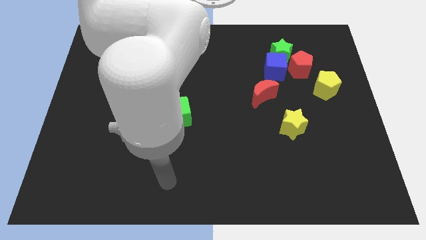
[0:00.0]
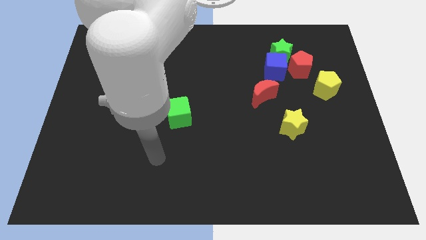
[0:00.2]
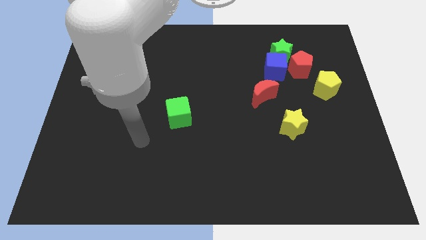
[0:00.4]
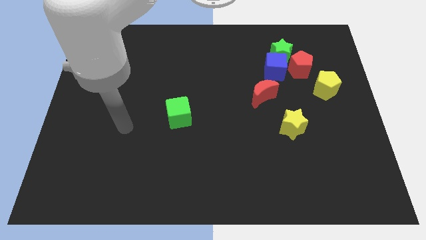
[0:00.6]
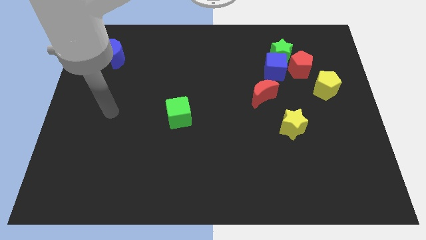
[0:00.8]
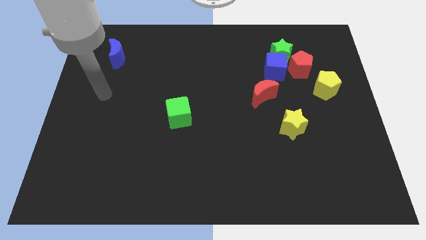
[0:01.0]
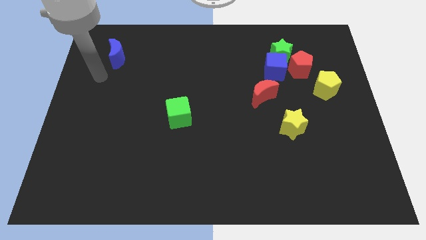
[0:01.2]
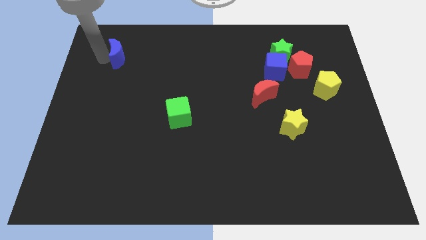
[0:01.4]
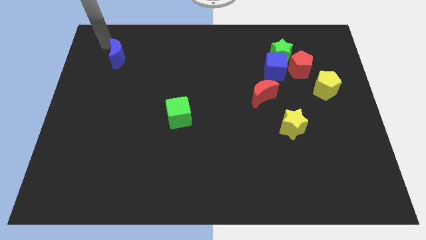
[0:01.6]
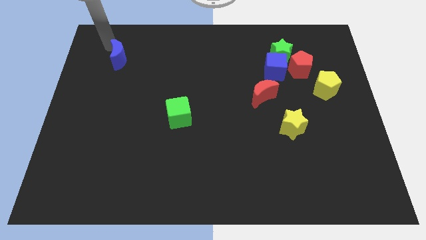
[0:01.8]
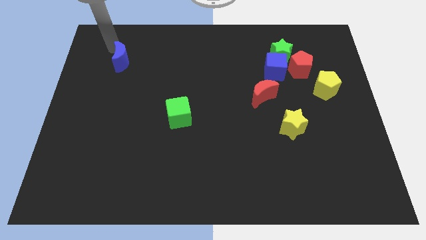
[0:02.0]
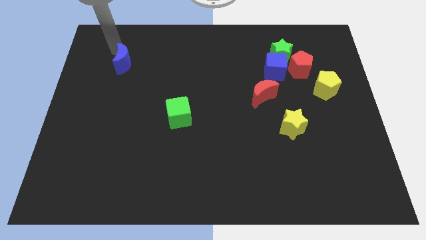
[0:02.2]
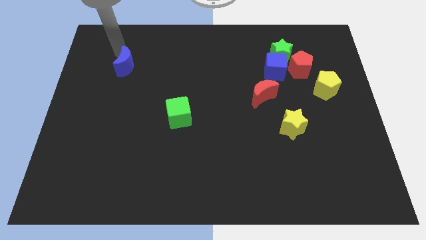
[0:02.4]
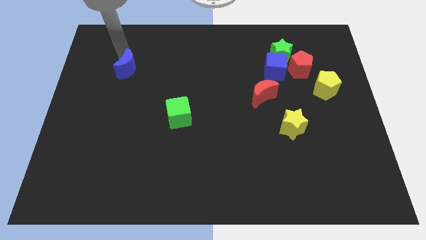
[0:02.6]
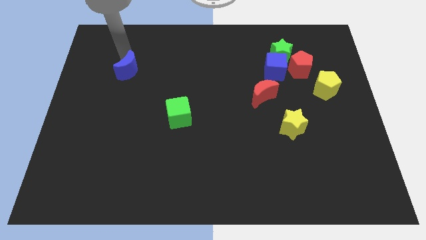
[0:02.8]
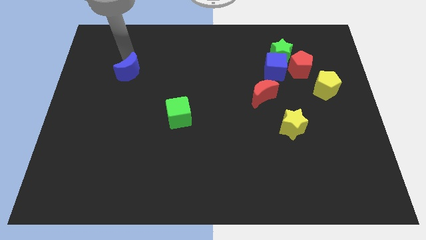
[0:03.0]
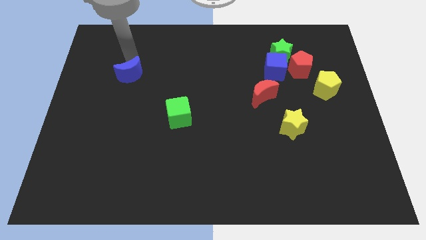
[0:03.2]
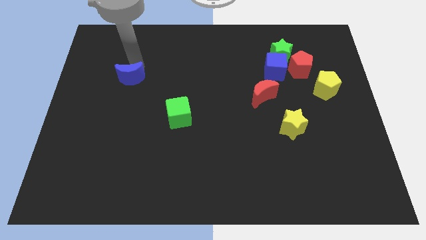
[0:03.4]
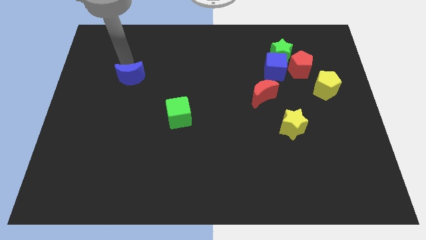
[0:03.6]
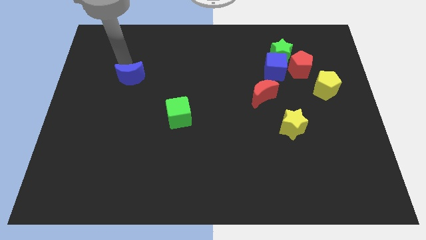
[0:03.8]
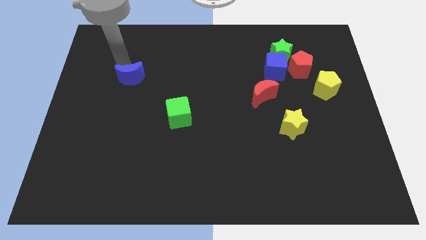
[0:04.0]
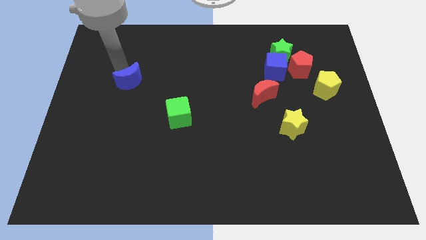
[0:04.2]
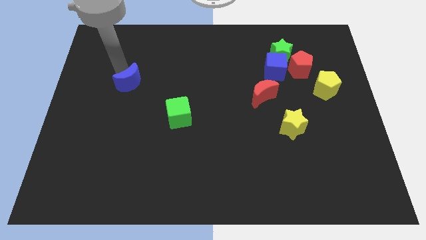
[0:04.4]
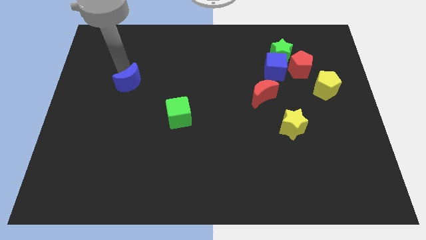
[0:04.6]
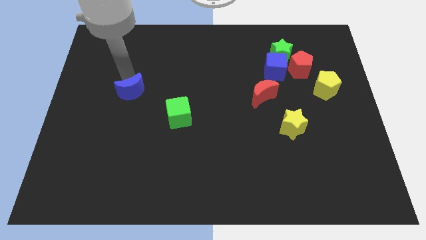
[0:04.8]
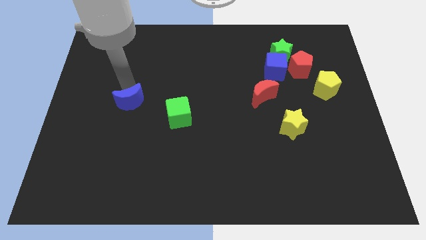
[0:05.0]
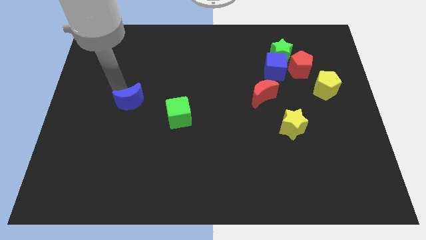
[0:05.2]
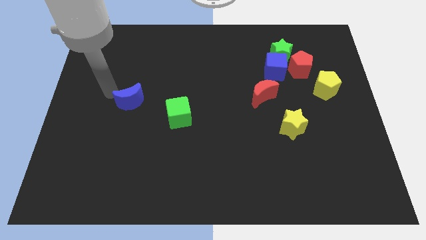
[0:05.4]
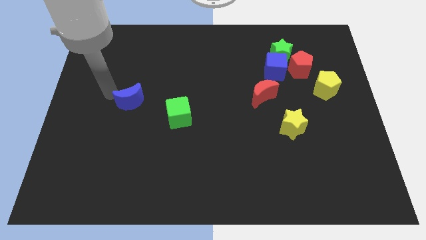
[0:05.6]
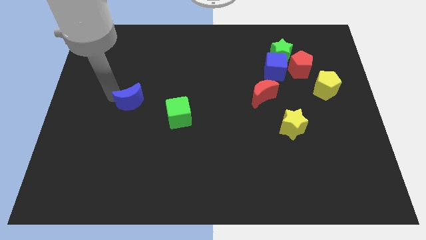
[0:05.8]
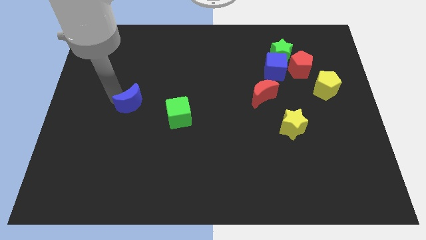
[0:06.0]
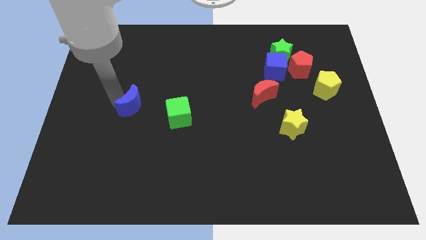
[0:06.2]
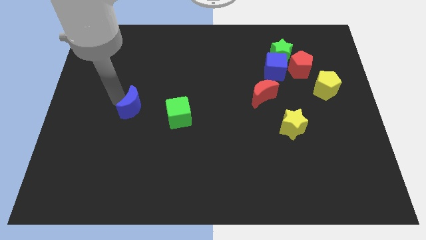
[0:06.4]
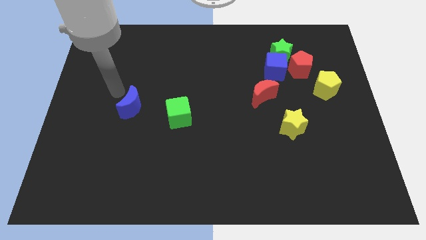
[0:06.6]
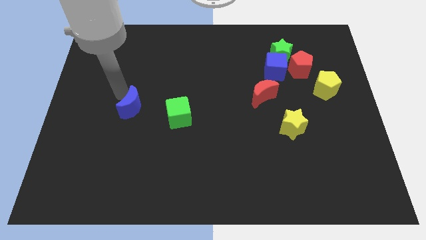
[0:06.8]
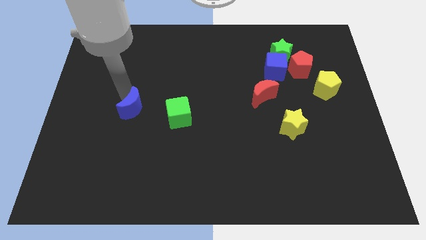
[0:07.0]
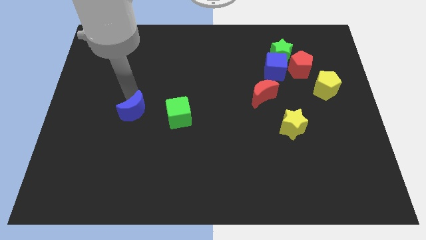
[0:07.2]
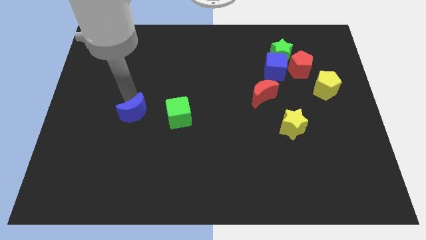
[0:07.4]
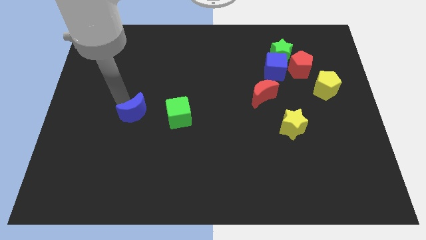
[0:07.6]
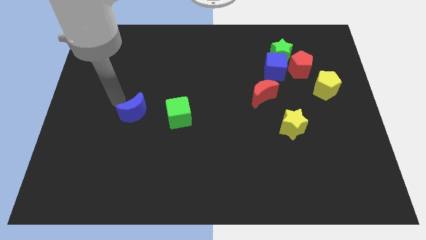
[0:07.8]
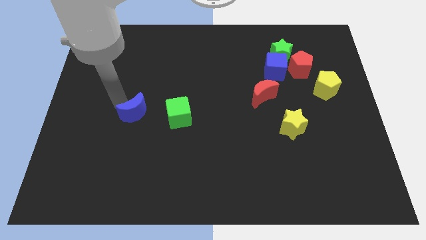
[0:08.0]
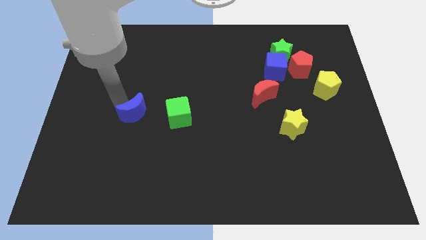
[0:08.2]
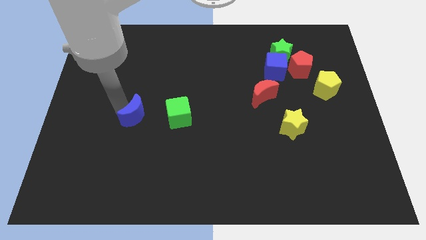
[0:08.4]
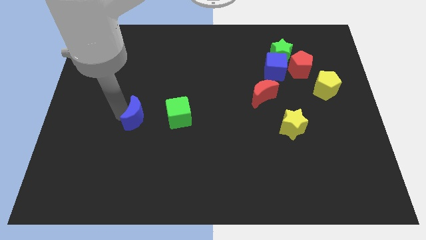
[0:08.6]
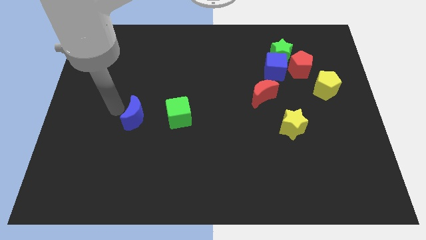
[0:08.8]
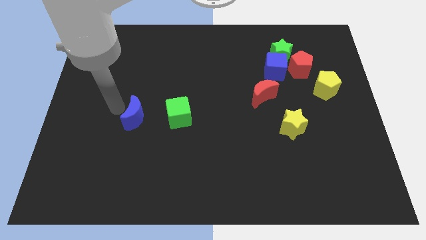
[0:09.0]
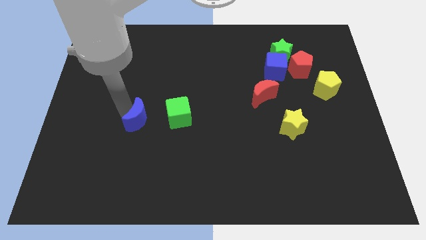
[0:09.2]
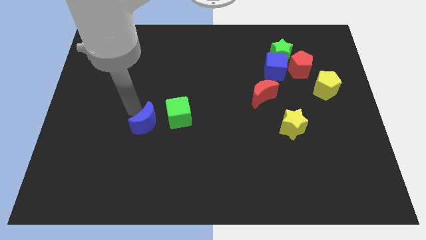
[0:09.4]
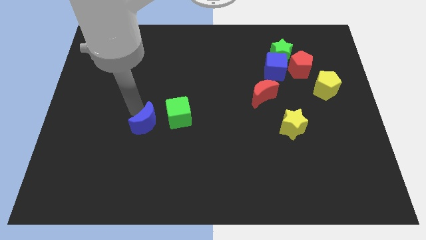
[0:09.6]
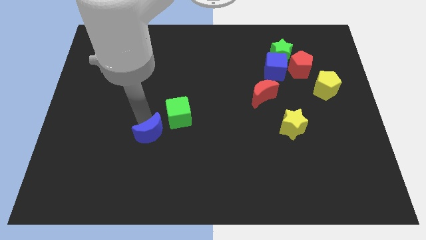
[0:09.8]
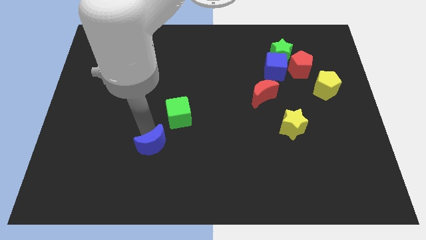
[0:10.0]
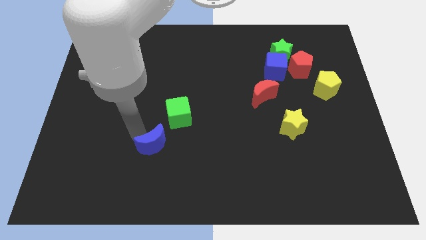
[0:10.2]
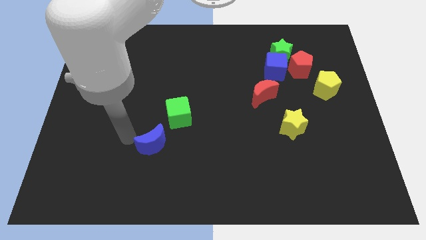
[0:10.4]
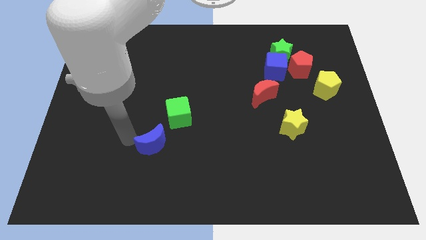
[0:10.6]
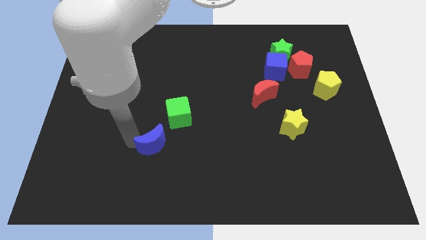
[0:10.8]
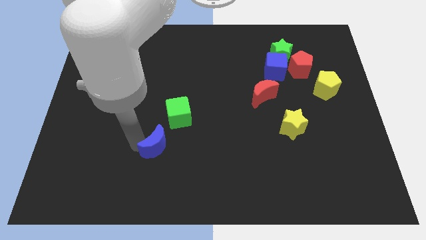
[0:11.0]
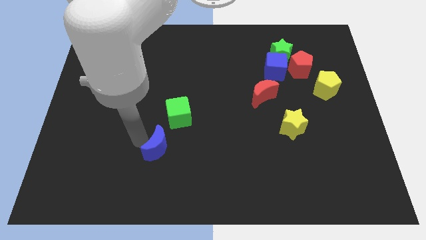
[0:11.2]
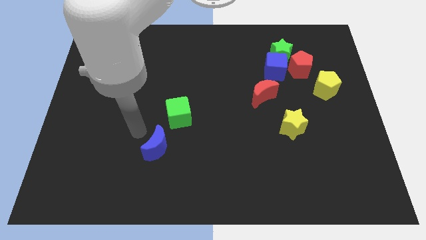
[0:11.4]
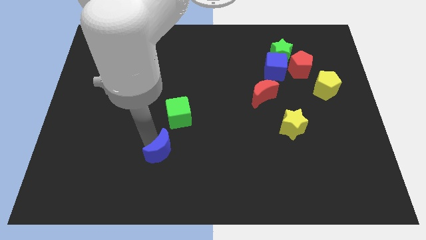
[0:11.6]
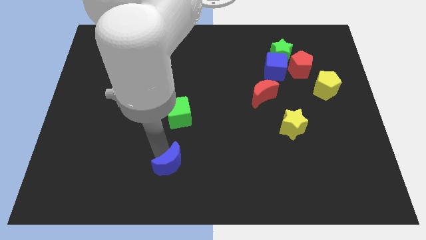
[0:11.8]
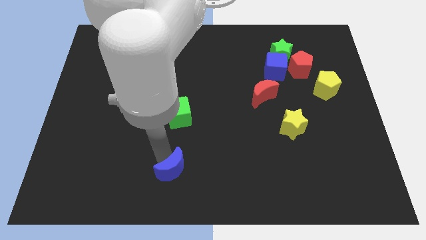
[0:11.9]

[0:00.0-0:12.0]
put the blue moon to the bottom

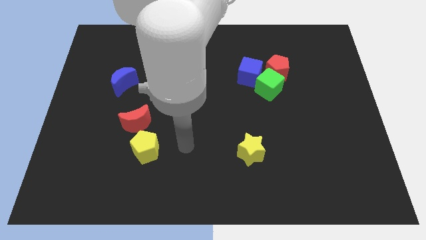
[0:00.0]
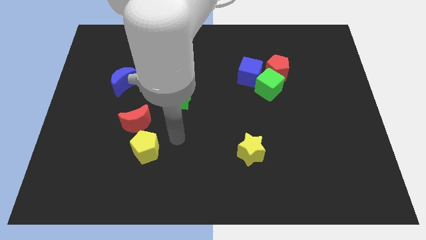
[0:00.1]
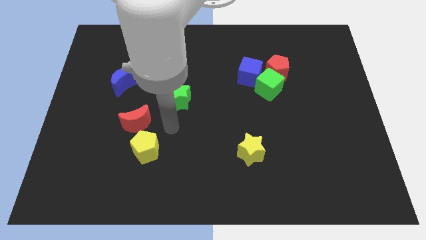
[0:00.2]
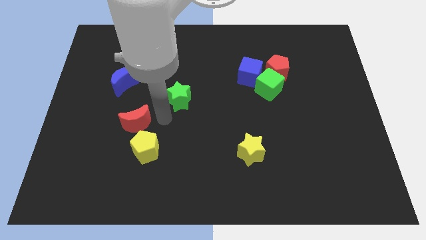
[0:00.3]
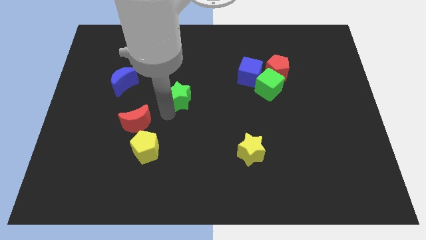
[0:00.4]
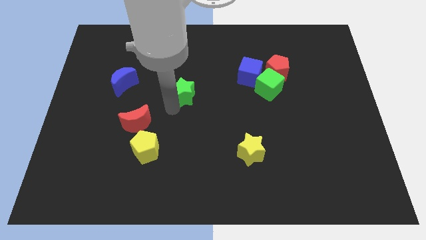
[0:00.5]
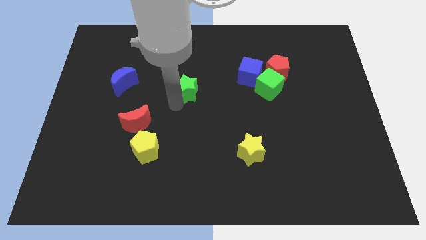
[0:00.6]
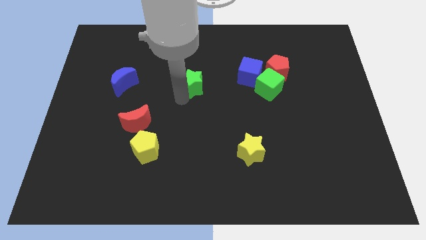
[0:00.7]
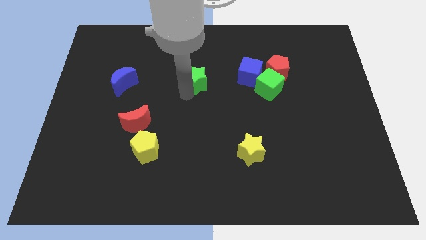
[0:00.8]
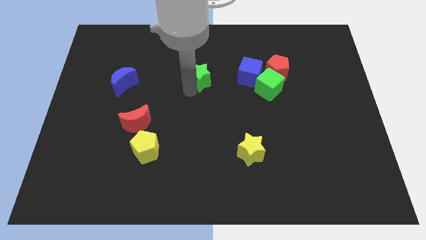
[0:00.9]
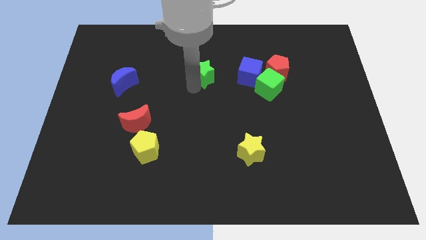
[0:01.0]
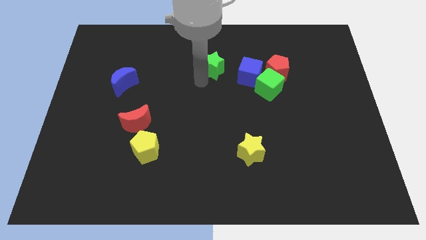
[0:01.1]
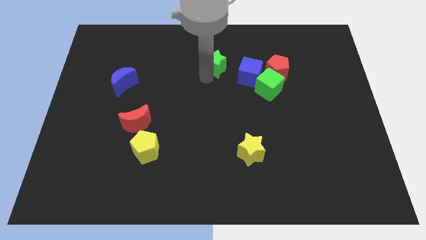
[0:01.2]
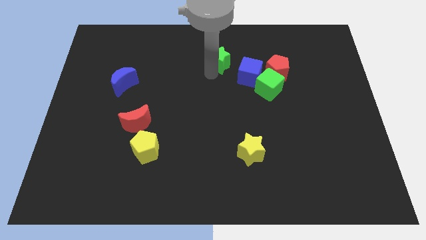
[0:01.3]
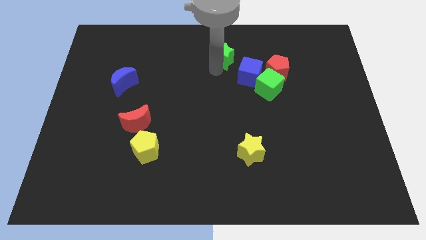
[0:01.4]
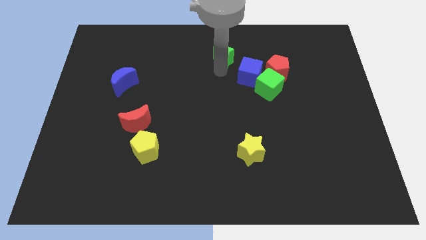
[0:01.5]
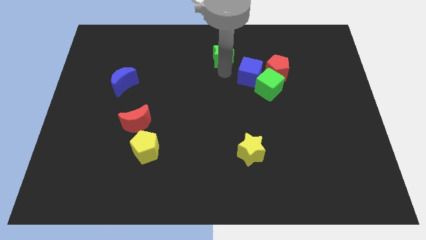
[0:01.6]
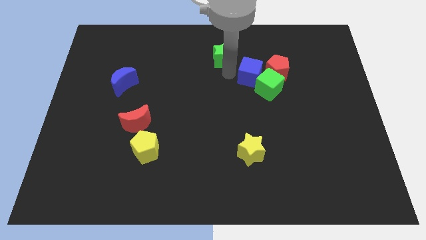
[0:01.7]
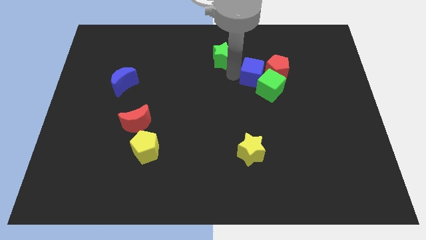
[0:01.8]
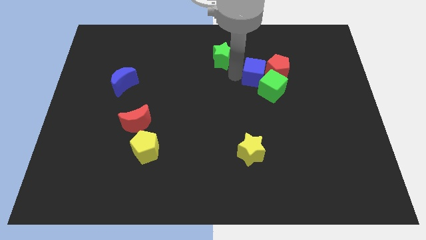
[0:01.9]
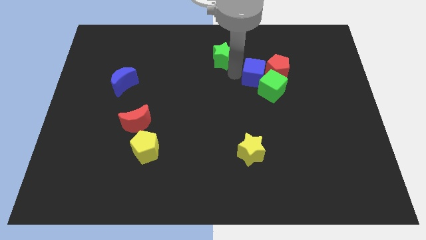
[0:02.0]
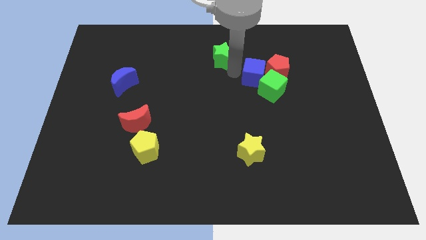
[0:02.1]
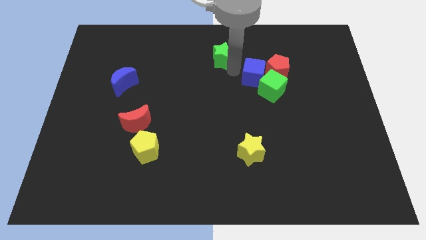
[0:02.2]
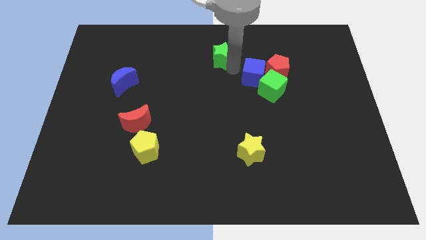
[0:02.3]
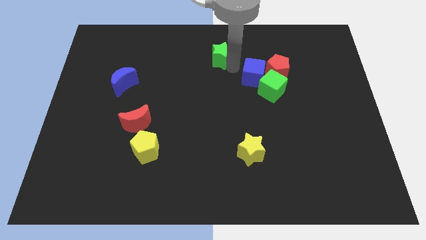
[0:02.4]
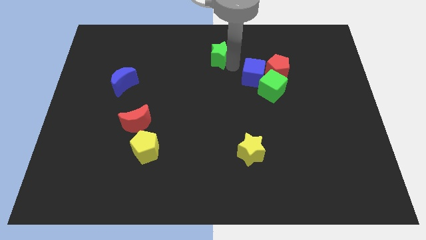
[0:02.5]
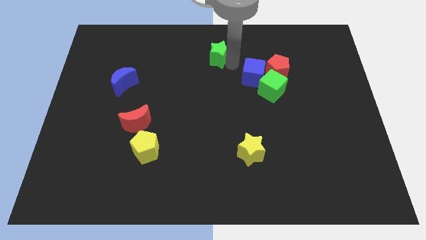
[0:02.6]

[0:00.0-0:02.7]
move the green star to the top side
